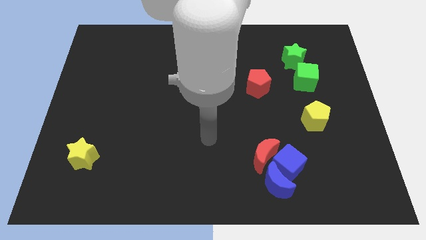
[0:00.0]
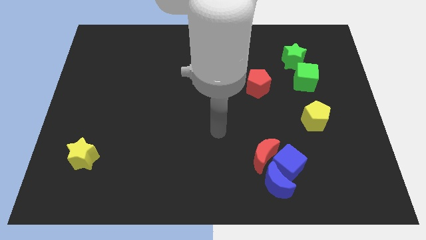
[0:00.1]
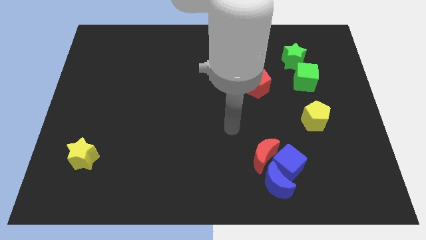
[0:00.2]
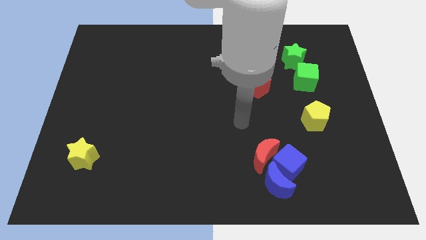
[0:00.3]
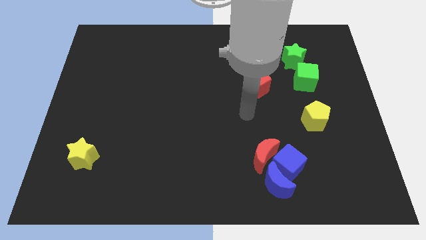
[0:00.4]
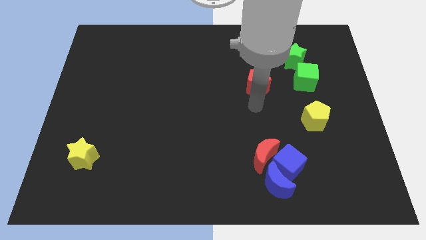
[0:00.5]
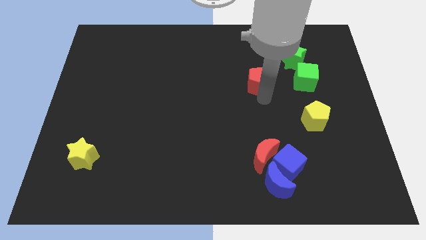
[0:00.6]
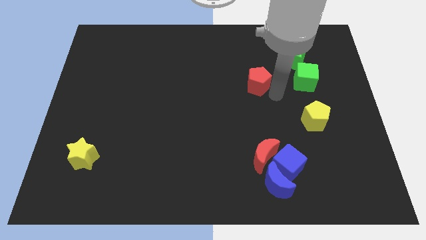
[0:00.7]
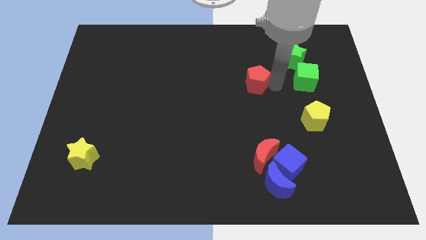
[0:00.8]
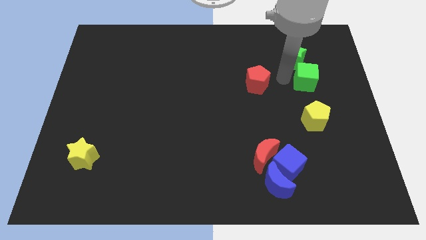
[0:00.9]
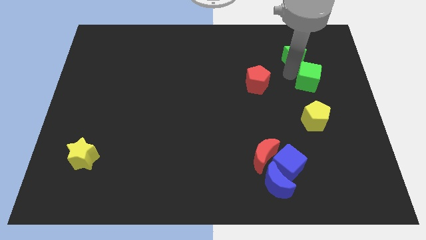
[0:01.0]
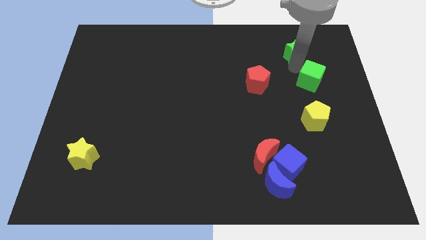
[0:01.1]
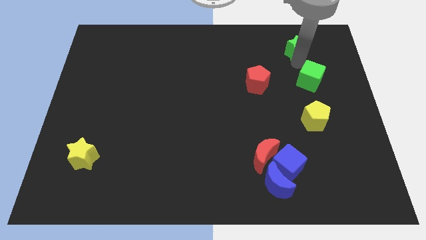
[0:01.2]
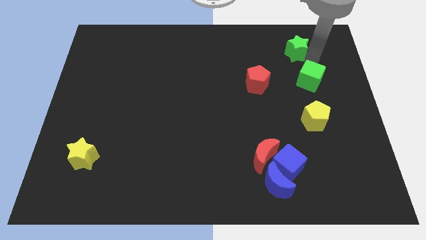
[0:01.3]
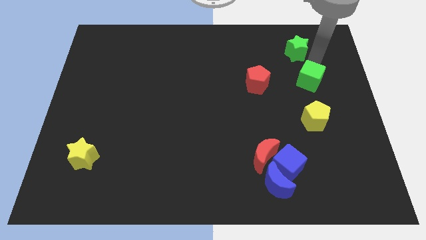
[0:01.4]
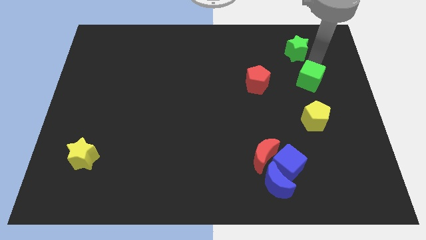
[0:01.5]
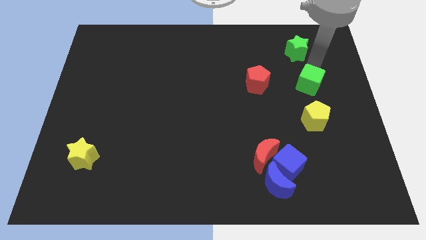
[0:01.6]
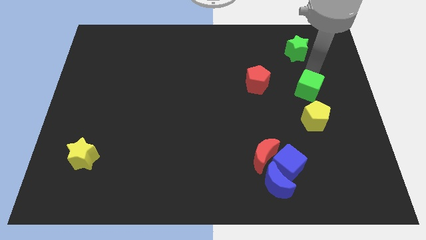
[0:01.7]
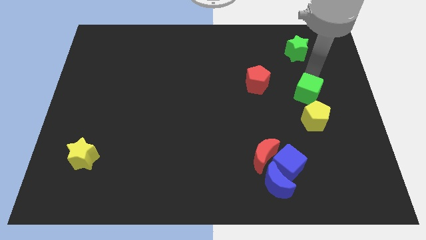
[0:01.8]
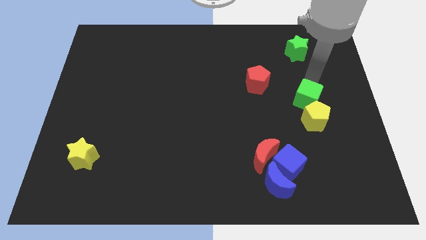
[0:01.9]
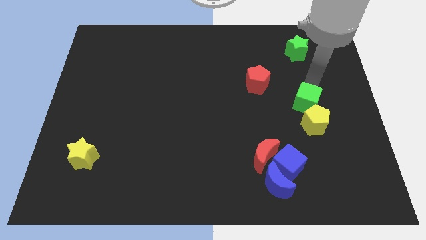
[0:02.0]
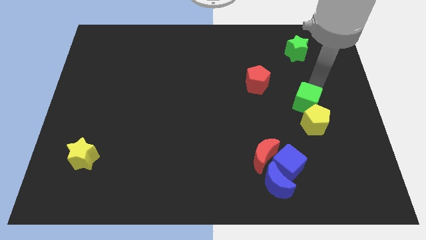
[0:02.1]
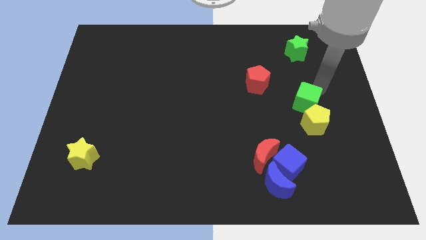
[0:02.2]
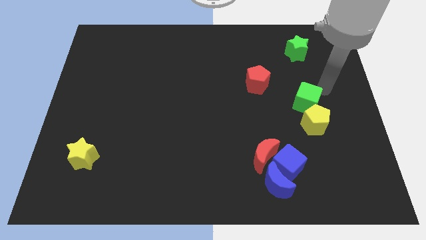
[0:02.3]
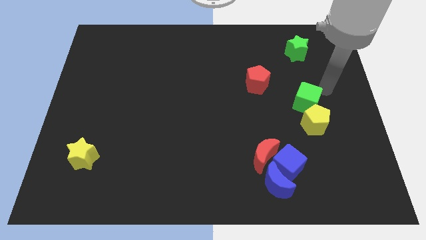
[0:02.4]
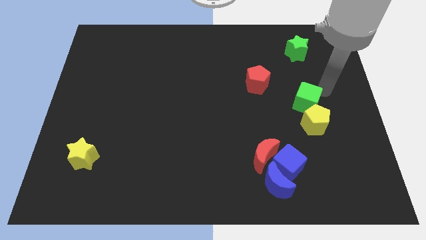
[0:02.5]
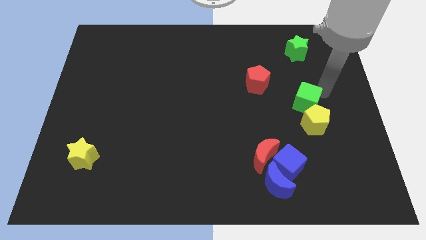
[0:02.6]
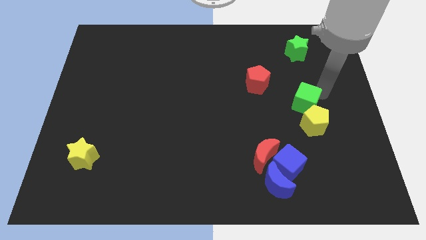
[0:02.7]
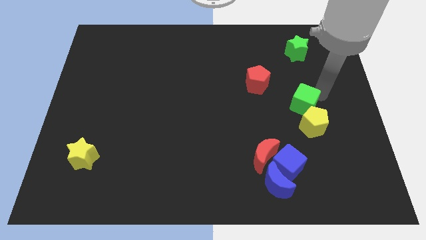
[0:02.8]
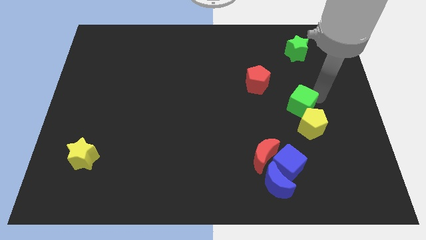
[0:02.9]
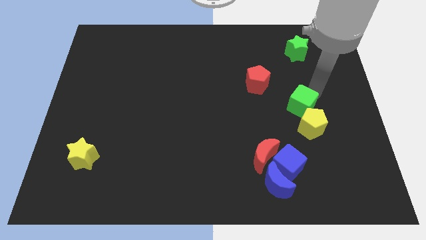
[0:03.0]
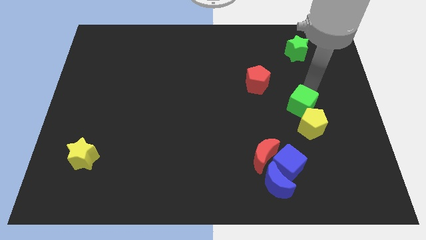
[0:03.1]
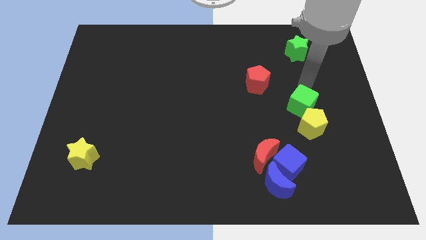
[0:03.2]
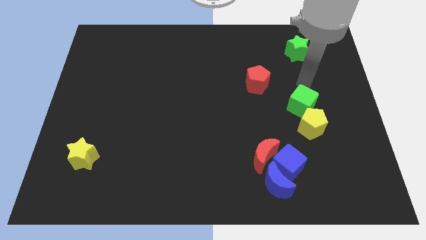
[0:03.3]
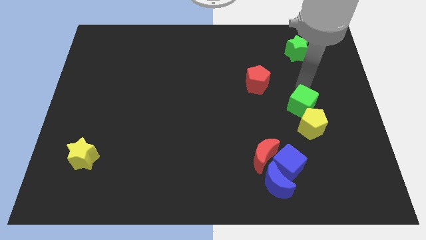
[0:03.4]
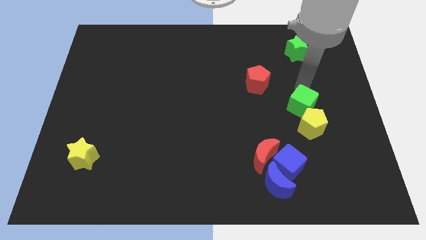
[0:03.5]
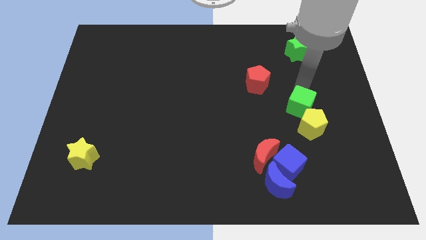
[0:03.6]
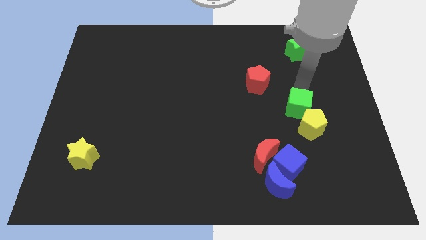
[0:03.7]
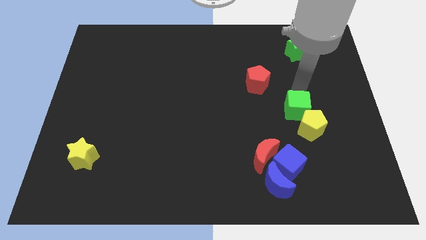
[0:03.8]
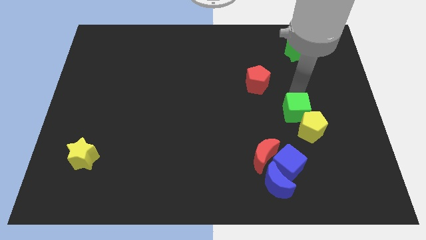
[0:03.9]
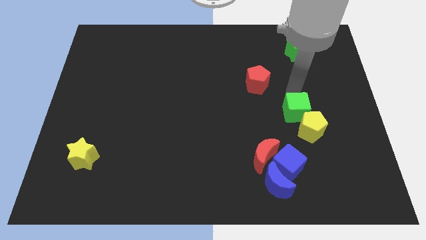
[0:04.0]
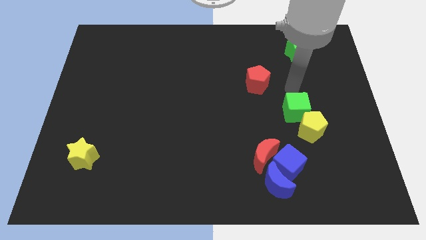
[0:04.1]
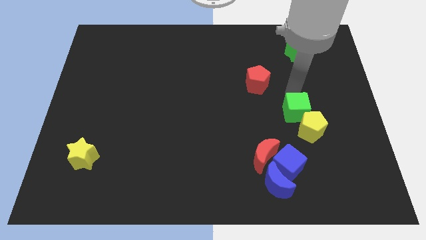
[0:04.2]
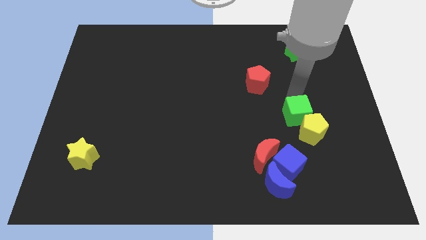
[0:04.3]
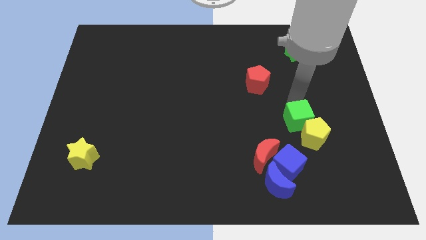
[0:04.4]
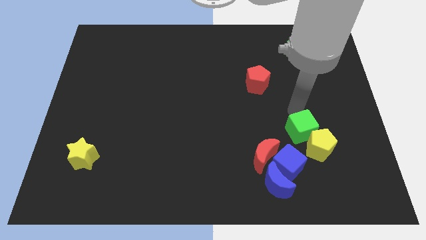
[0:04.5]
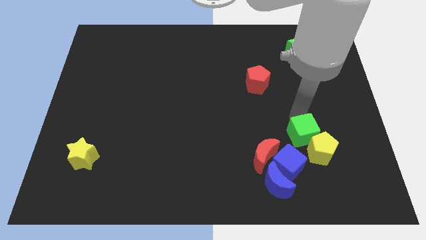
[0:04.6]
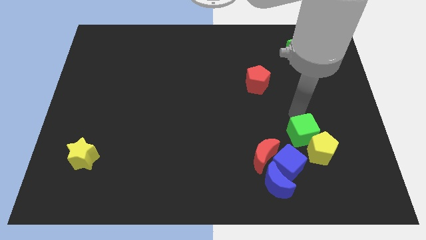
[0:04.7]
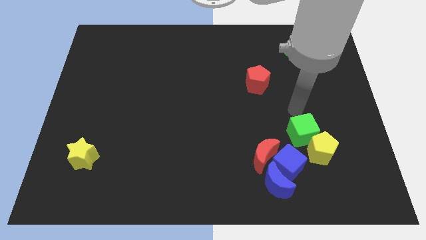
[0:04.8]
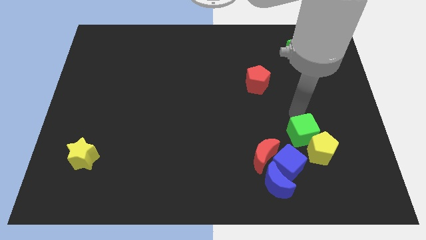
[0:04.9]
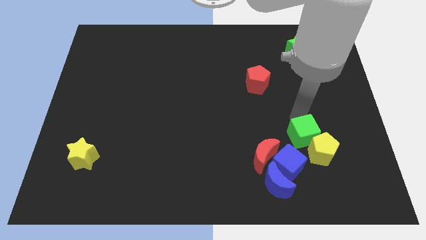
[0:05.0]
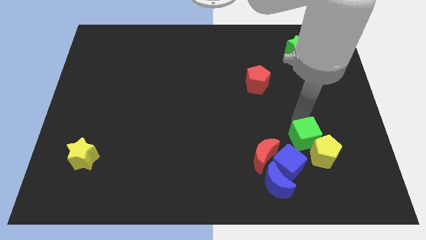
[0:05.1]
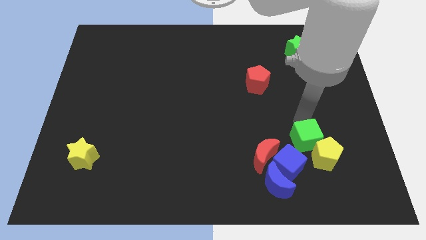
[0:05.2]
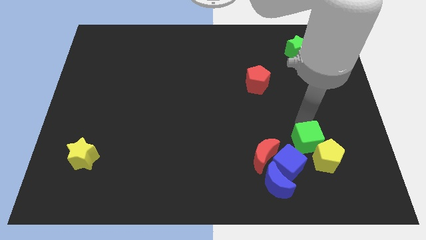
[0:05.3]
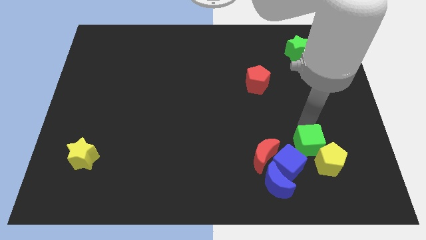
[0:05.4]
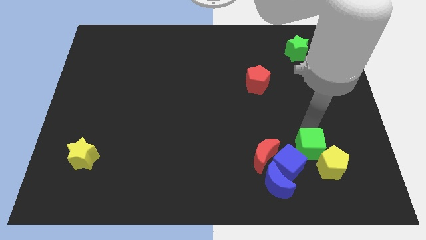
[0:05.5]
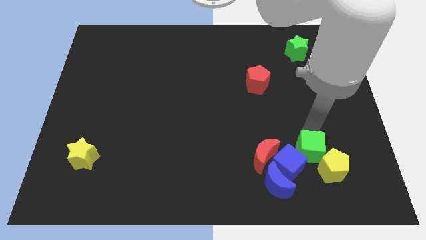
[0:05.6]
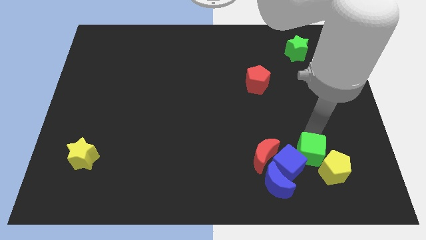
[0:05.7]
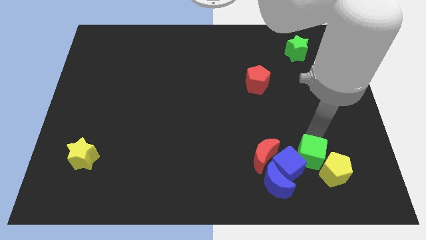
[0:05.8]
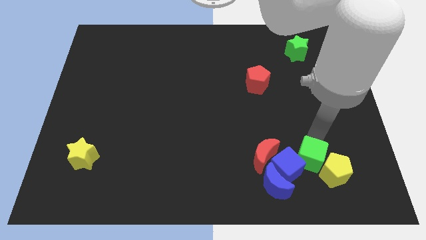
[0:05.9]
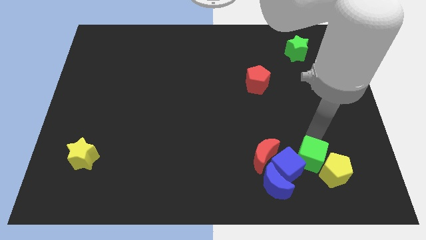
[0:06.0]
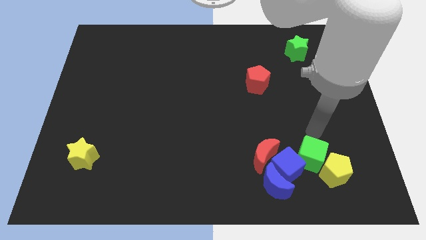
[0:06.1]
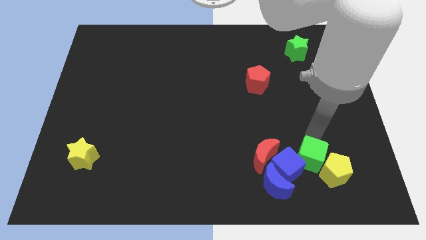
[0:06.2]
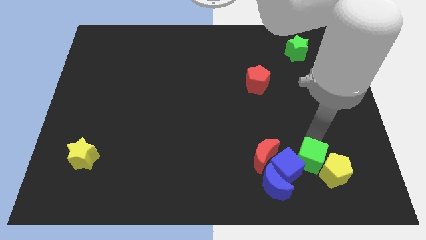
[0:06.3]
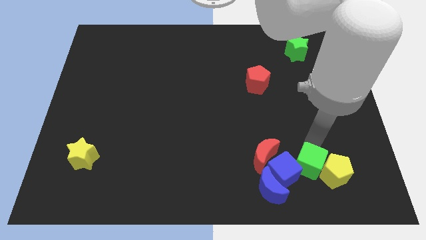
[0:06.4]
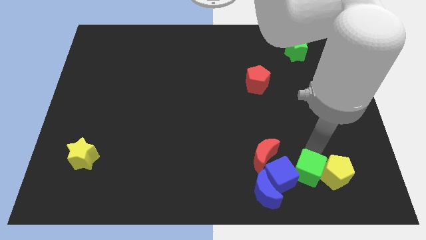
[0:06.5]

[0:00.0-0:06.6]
slide the green cube diagonally down and to the right of the red moon
